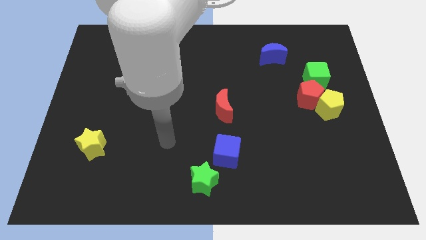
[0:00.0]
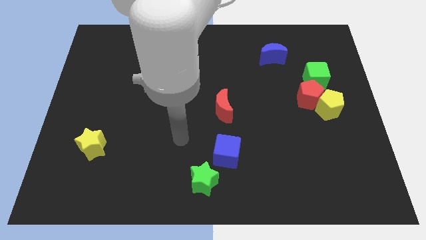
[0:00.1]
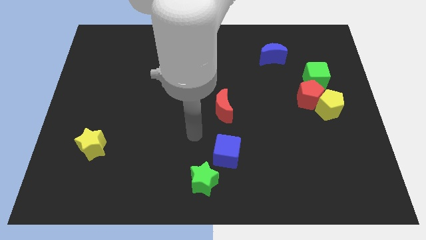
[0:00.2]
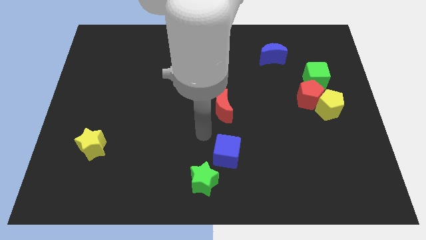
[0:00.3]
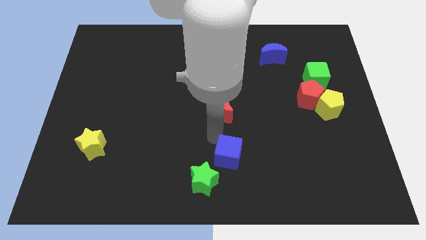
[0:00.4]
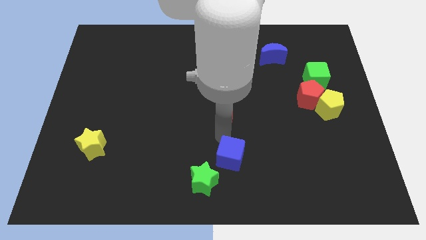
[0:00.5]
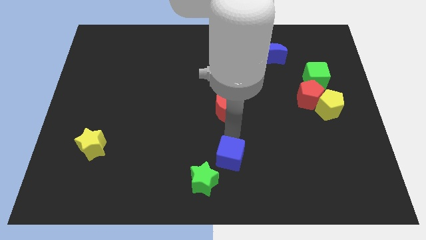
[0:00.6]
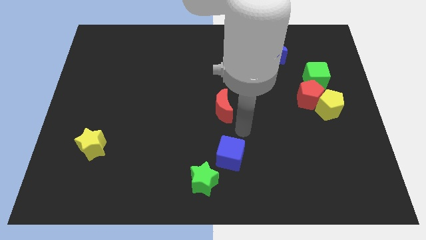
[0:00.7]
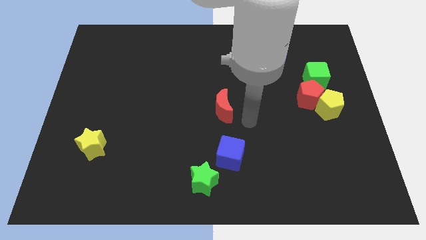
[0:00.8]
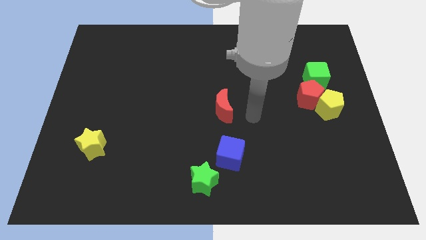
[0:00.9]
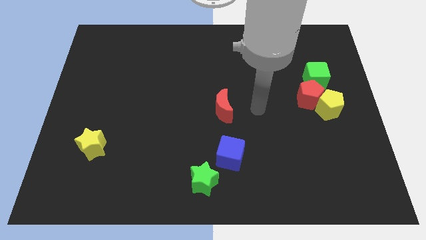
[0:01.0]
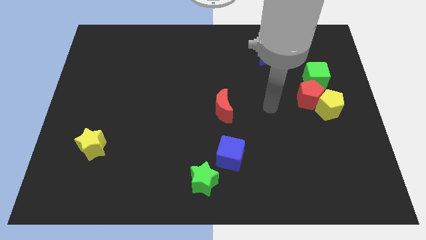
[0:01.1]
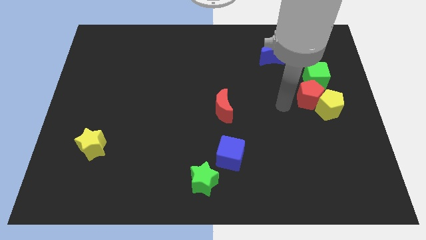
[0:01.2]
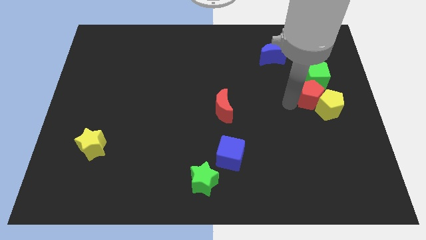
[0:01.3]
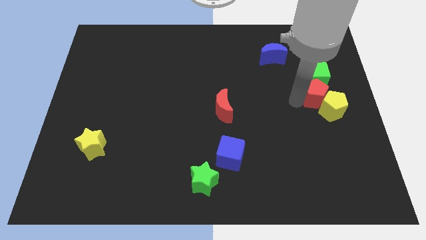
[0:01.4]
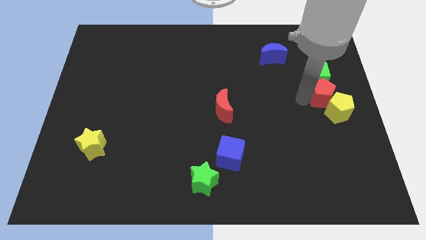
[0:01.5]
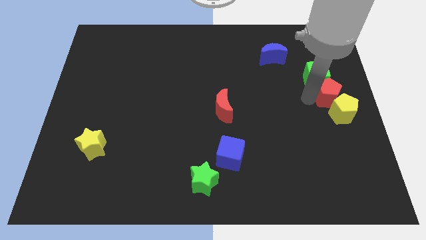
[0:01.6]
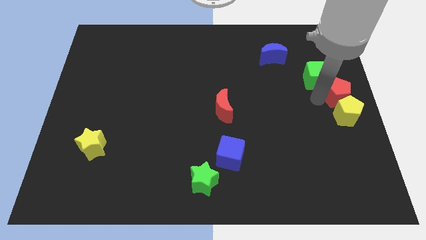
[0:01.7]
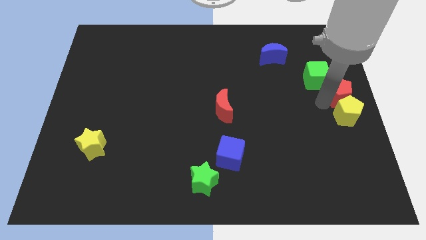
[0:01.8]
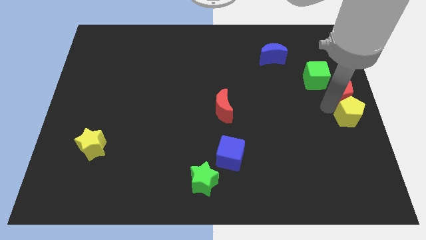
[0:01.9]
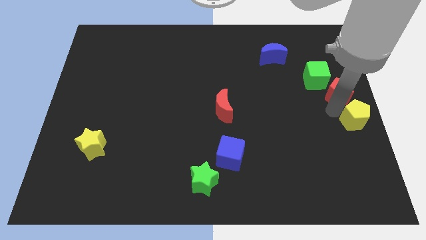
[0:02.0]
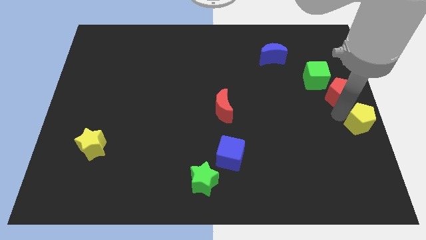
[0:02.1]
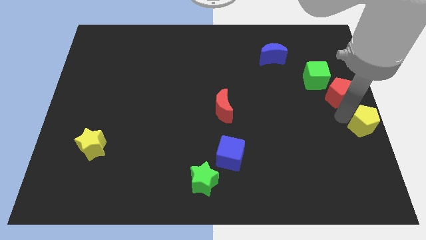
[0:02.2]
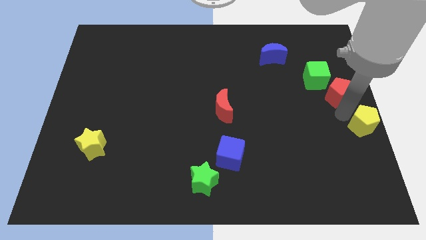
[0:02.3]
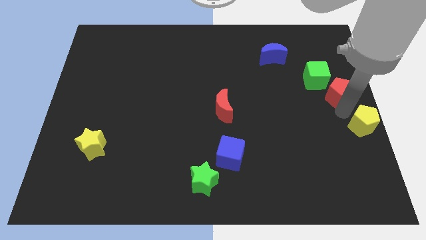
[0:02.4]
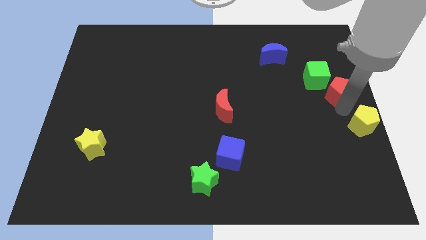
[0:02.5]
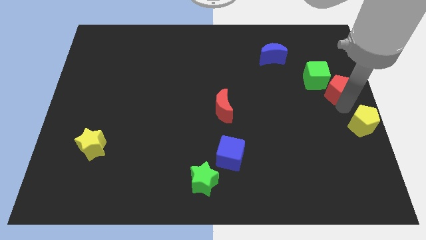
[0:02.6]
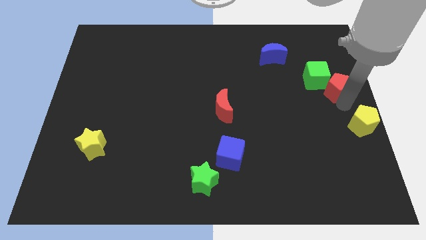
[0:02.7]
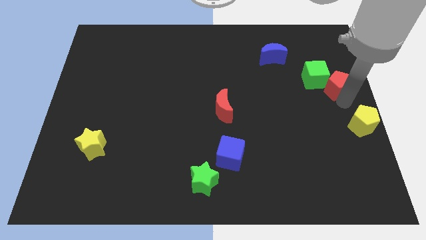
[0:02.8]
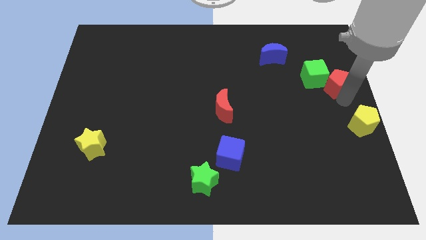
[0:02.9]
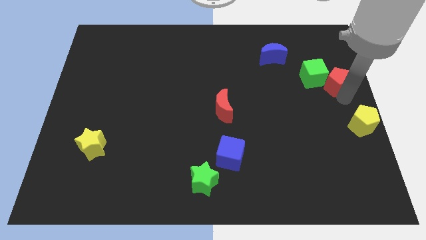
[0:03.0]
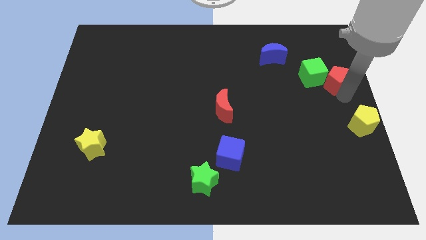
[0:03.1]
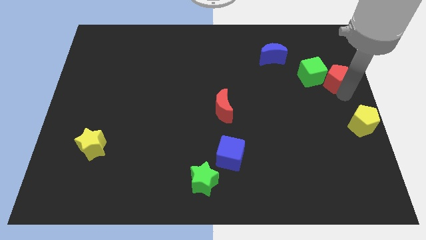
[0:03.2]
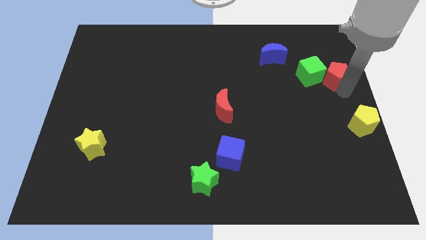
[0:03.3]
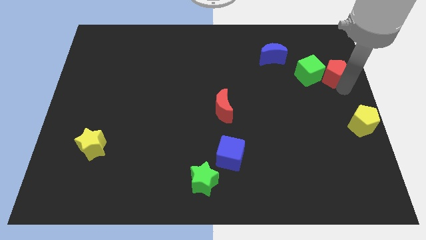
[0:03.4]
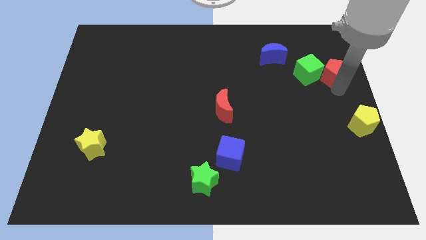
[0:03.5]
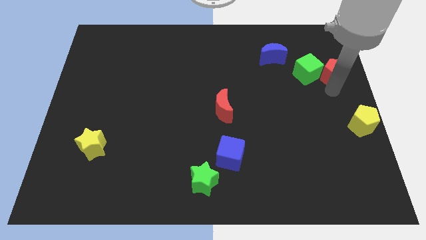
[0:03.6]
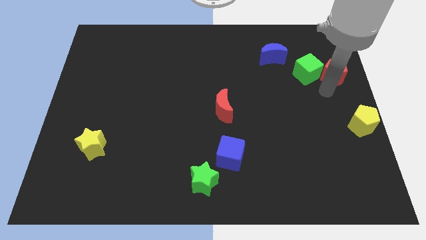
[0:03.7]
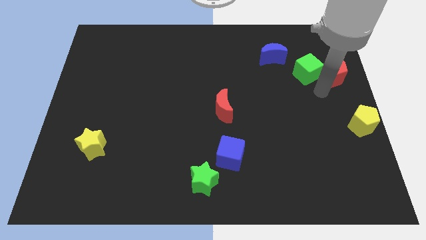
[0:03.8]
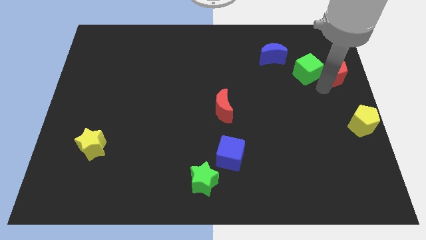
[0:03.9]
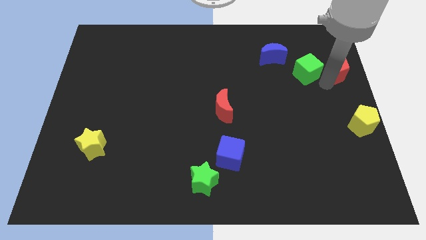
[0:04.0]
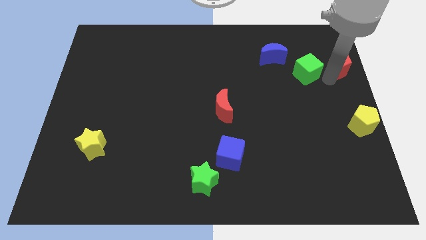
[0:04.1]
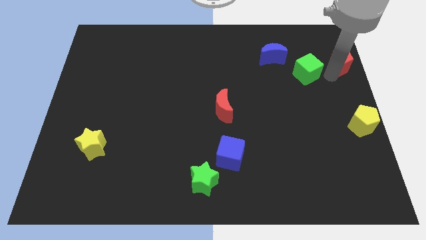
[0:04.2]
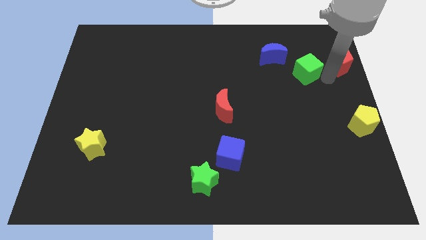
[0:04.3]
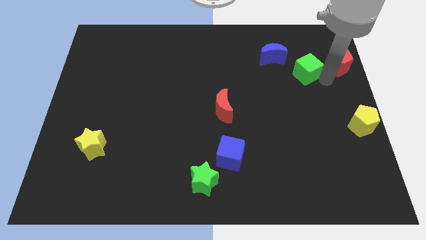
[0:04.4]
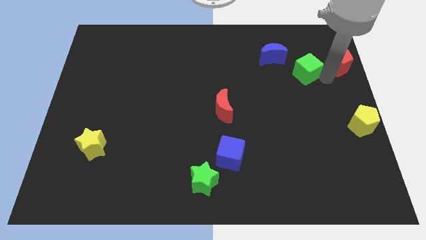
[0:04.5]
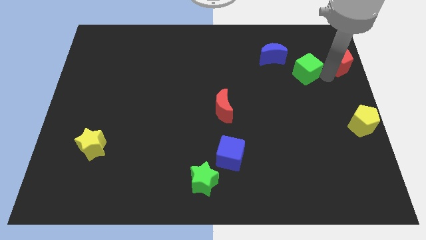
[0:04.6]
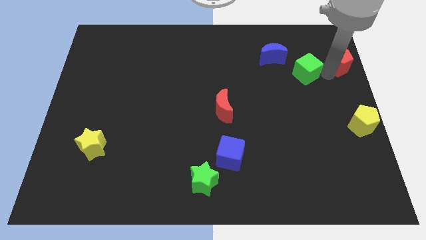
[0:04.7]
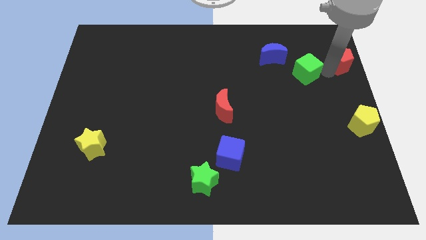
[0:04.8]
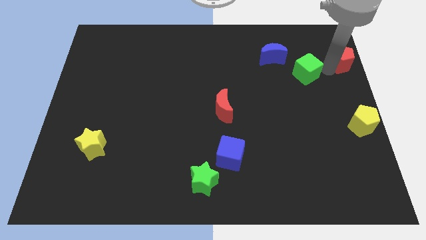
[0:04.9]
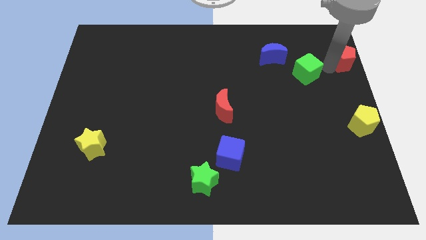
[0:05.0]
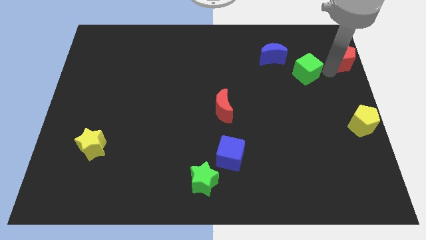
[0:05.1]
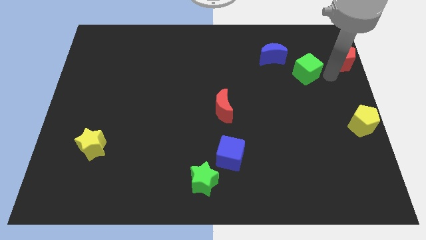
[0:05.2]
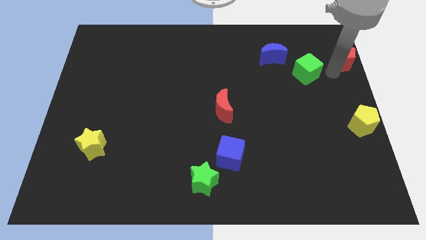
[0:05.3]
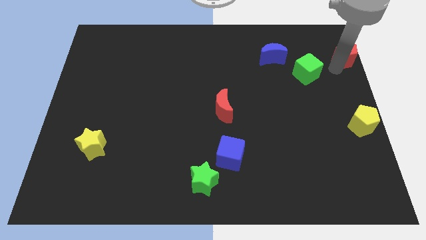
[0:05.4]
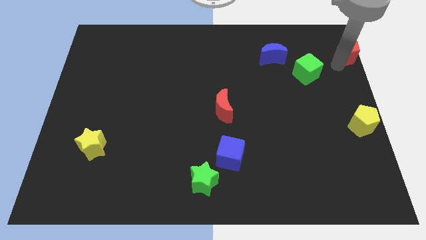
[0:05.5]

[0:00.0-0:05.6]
push the red pentagon to the upper right corner

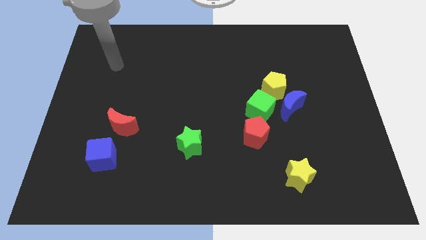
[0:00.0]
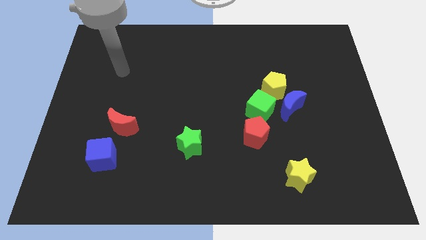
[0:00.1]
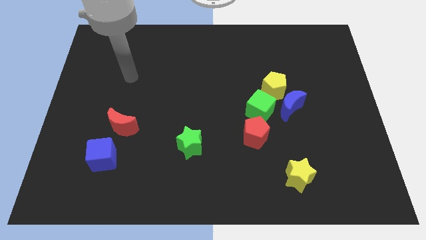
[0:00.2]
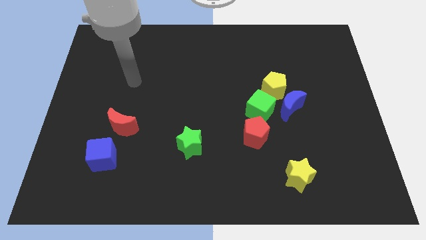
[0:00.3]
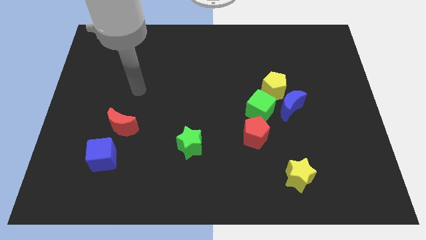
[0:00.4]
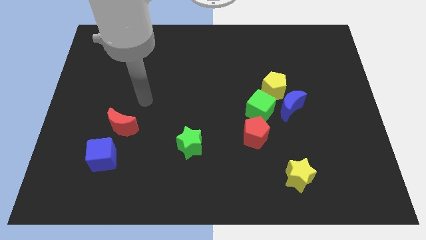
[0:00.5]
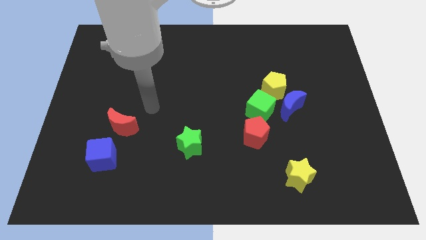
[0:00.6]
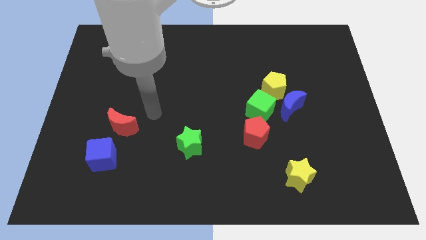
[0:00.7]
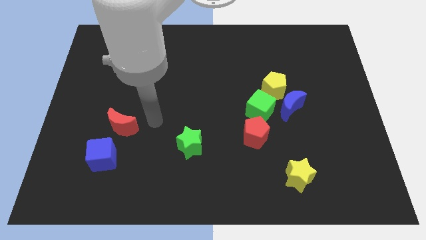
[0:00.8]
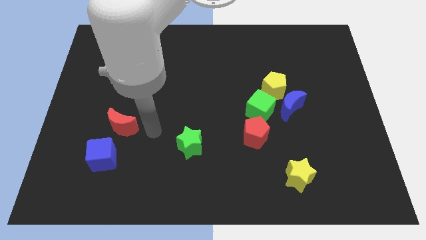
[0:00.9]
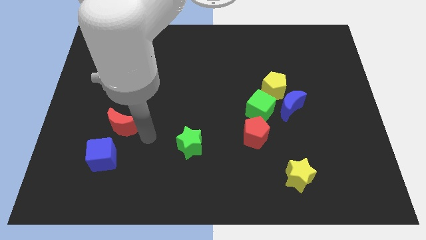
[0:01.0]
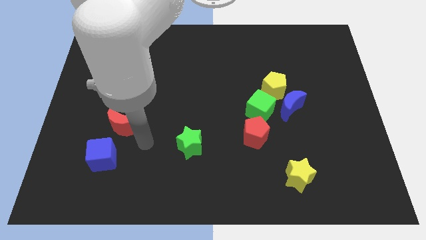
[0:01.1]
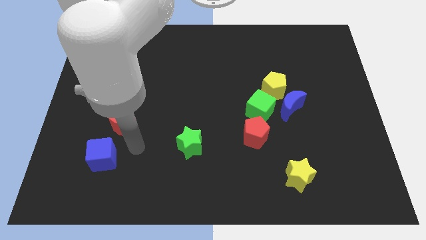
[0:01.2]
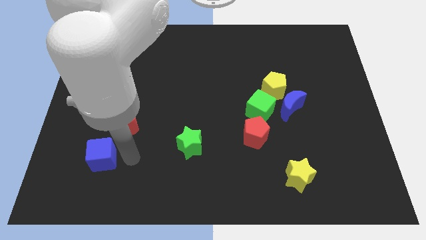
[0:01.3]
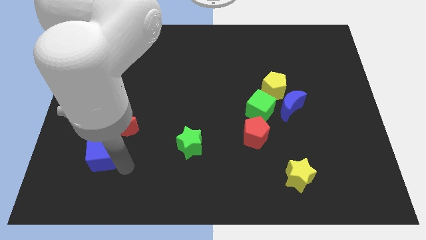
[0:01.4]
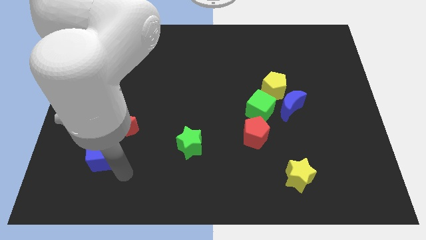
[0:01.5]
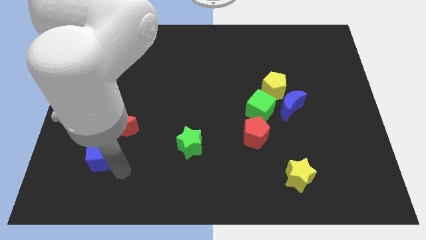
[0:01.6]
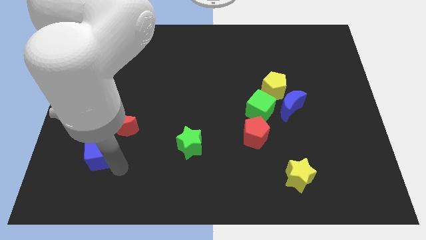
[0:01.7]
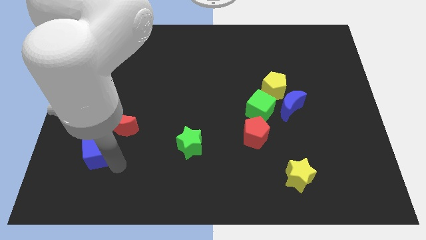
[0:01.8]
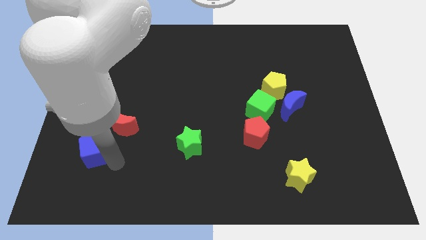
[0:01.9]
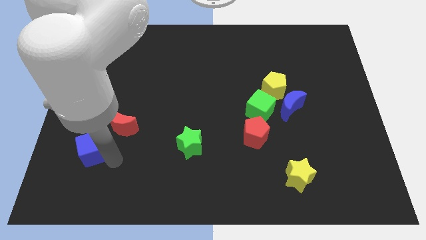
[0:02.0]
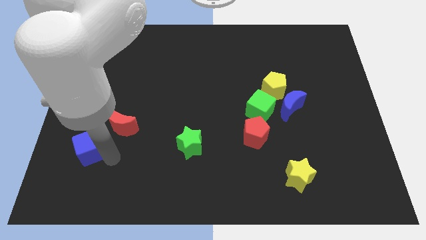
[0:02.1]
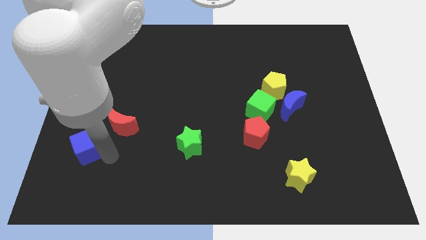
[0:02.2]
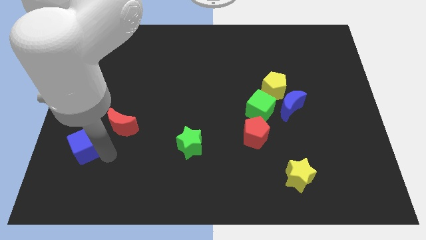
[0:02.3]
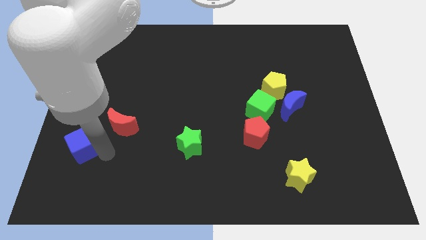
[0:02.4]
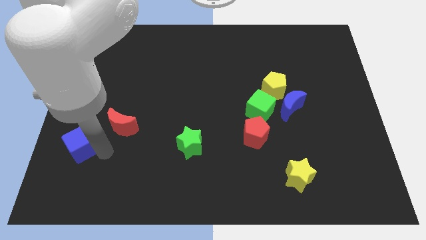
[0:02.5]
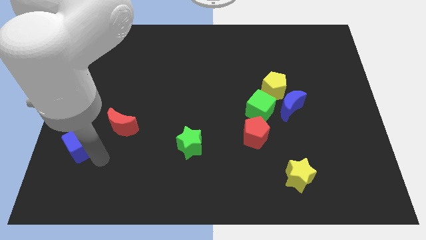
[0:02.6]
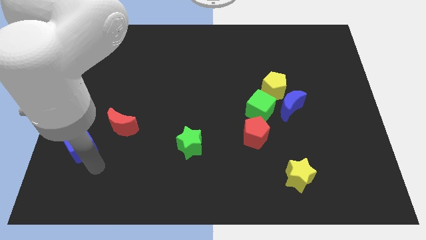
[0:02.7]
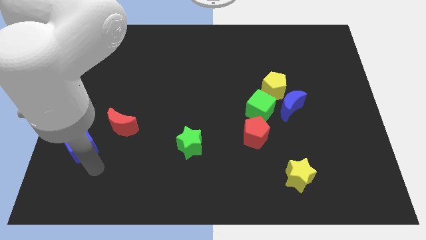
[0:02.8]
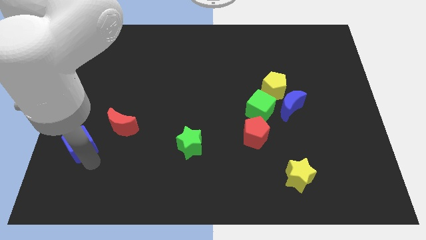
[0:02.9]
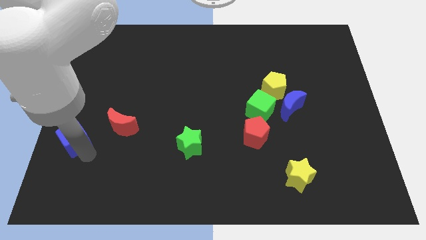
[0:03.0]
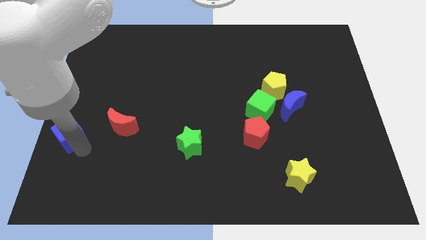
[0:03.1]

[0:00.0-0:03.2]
push the blue cube to the left side
